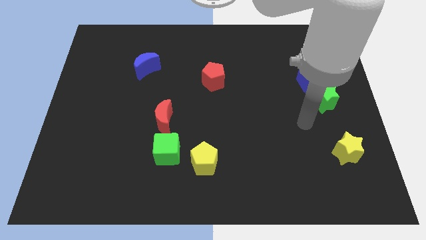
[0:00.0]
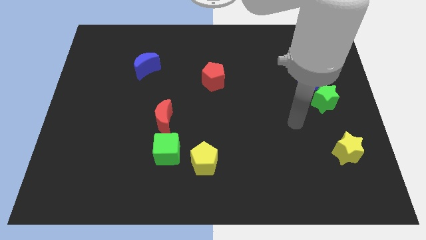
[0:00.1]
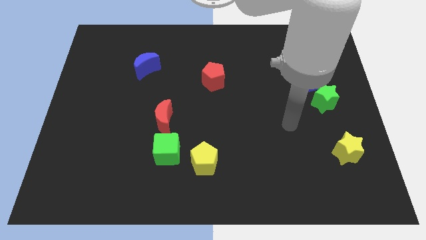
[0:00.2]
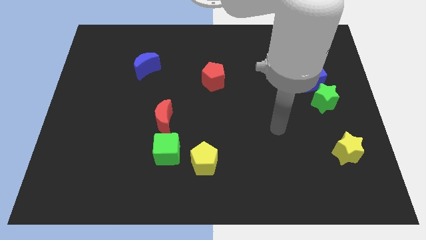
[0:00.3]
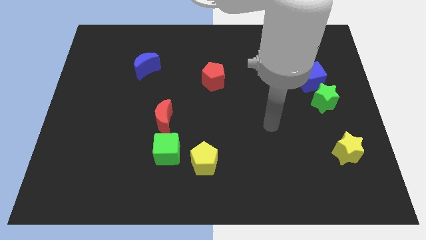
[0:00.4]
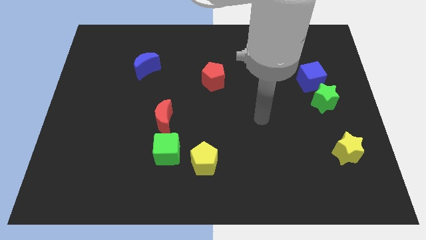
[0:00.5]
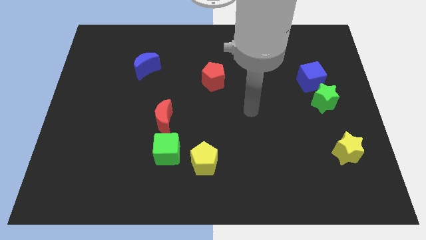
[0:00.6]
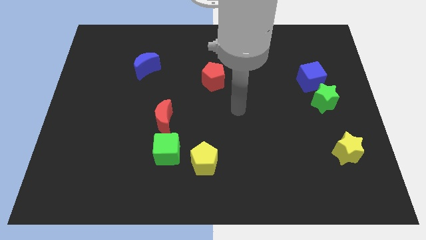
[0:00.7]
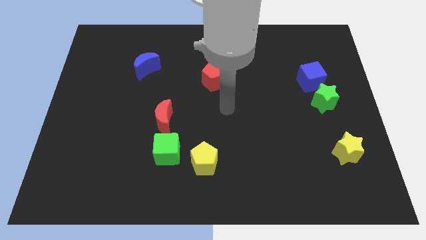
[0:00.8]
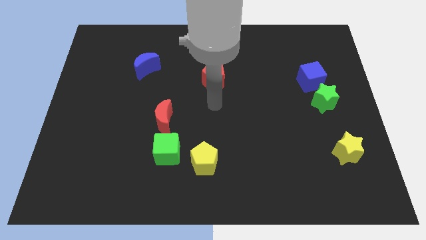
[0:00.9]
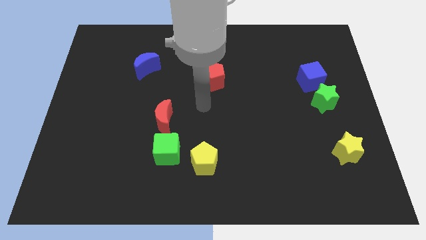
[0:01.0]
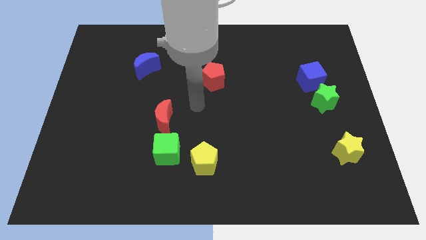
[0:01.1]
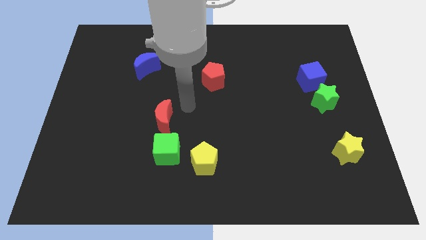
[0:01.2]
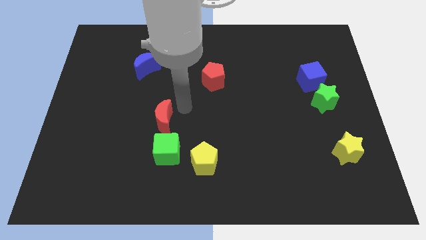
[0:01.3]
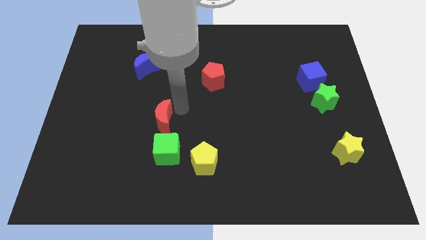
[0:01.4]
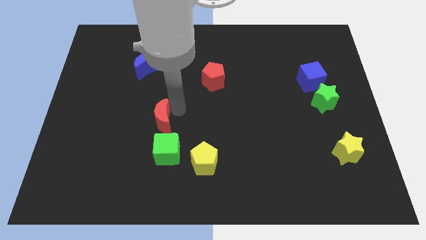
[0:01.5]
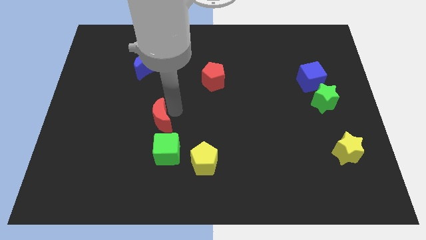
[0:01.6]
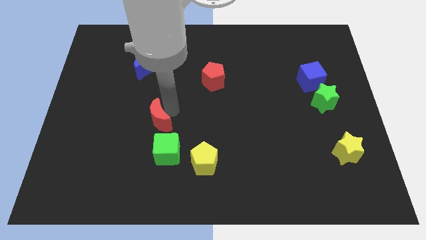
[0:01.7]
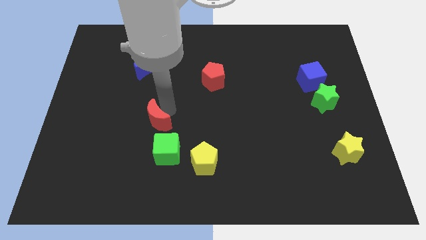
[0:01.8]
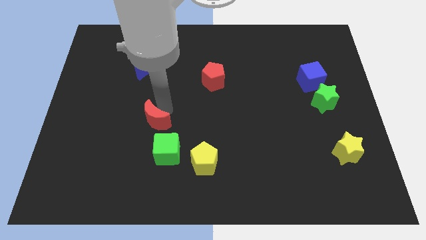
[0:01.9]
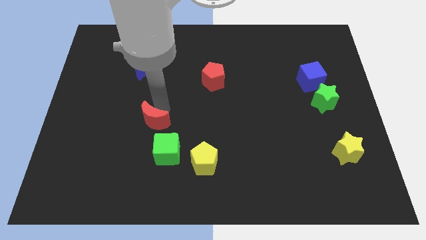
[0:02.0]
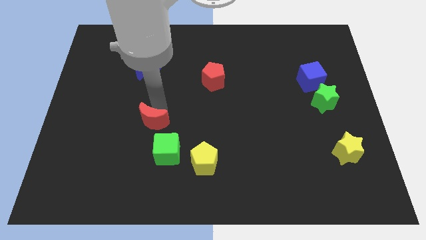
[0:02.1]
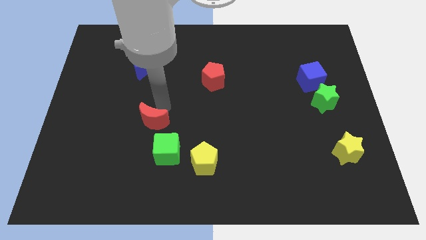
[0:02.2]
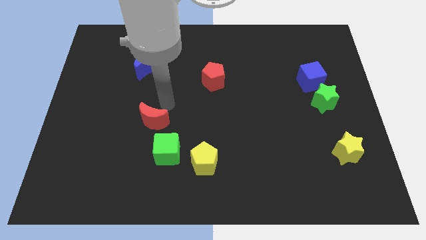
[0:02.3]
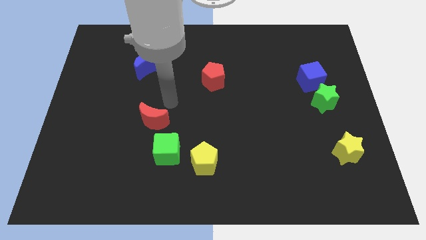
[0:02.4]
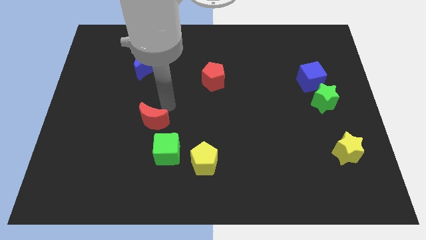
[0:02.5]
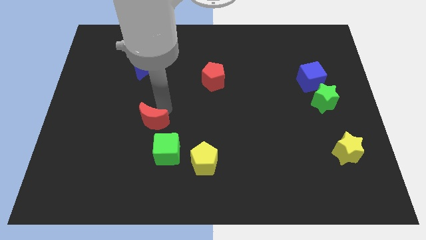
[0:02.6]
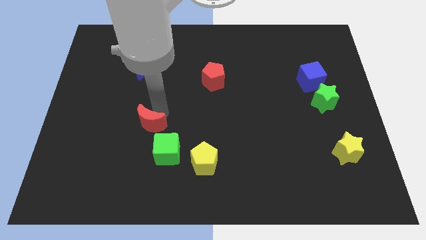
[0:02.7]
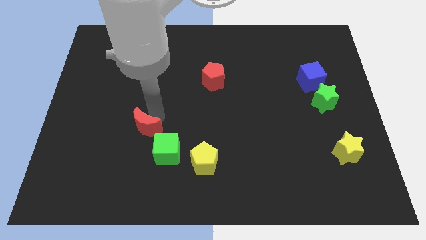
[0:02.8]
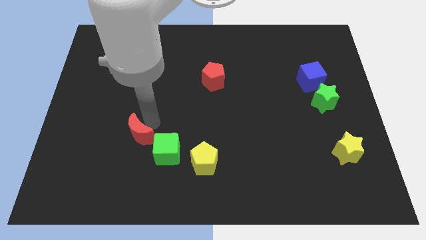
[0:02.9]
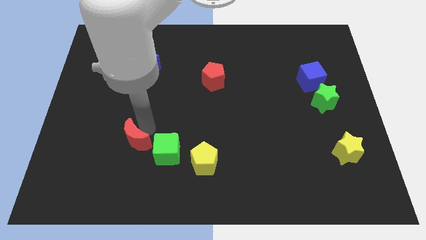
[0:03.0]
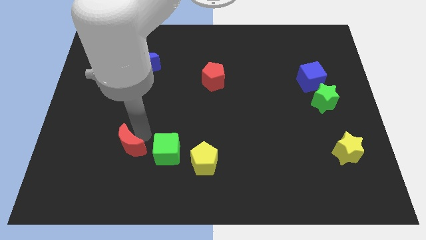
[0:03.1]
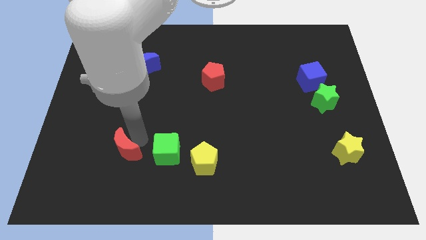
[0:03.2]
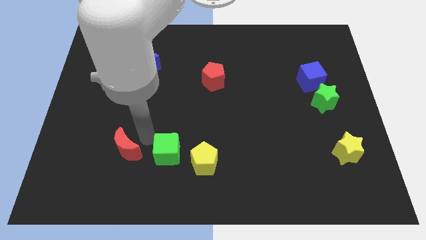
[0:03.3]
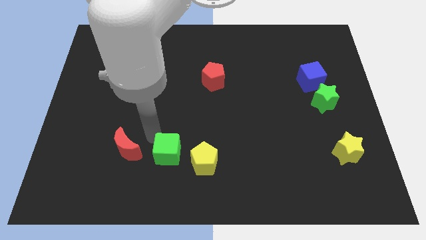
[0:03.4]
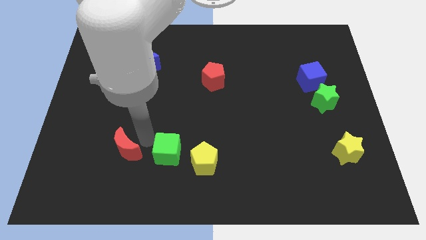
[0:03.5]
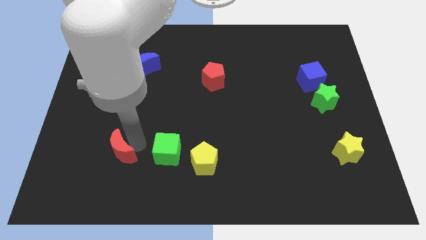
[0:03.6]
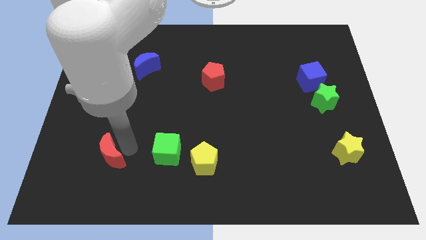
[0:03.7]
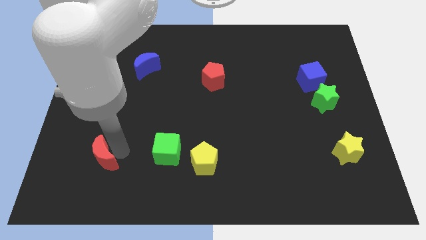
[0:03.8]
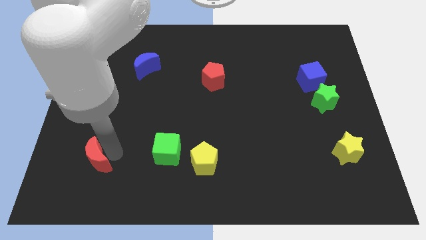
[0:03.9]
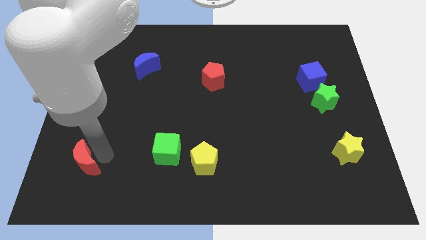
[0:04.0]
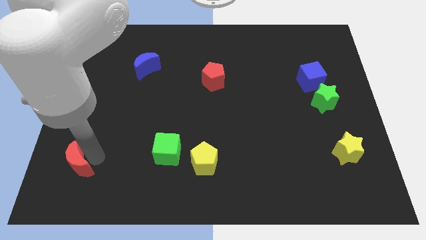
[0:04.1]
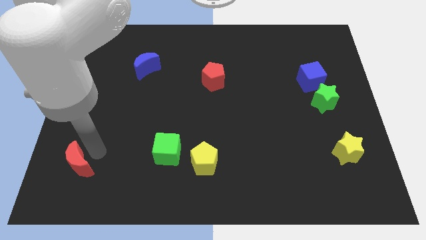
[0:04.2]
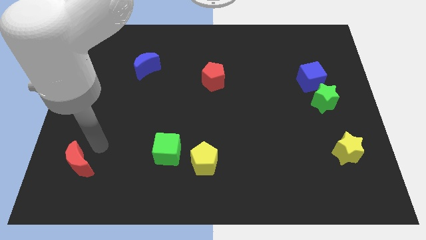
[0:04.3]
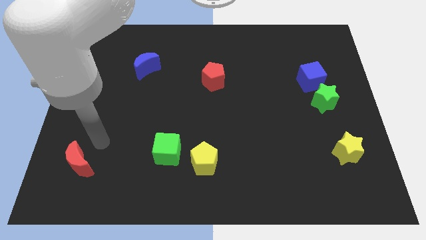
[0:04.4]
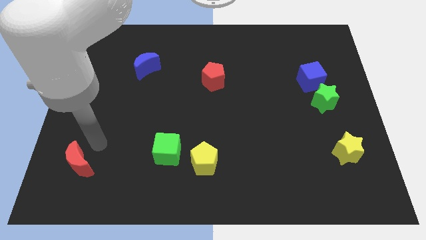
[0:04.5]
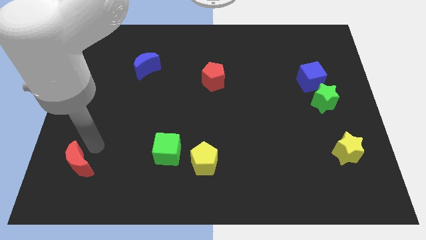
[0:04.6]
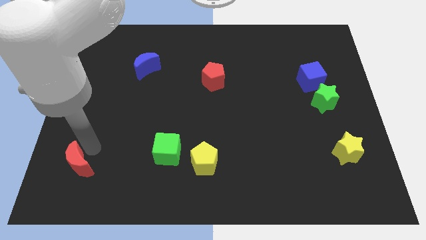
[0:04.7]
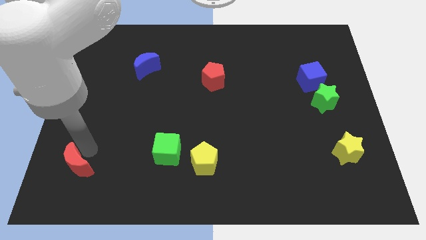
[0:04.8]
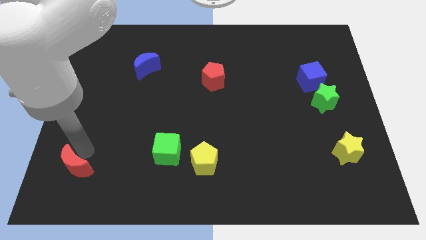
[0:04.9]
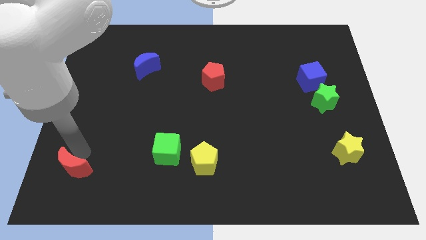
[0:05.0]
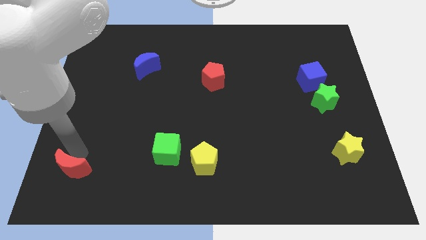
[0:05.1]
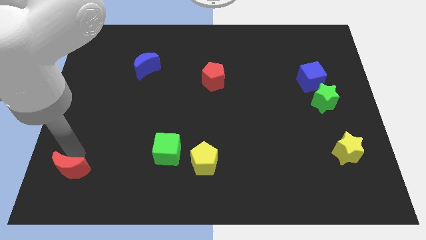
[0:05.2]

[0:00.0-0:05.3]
move the red moon to the bottom left of the board
